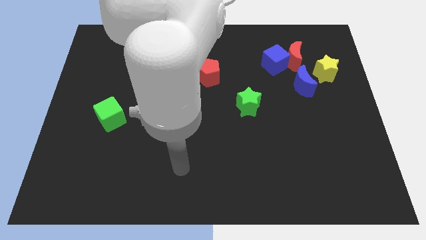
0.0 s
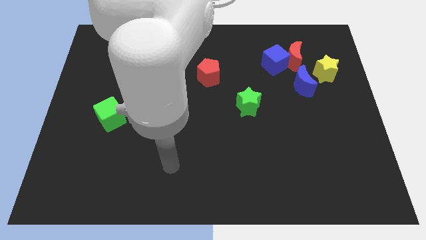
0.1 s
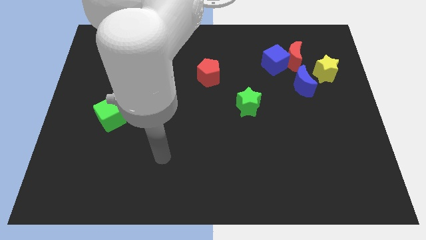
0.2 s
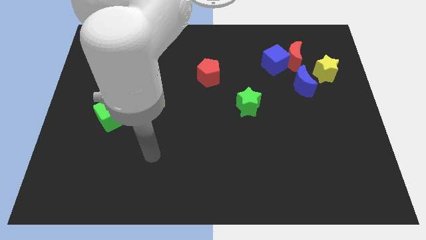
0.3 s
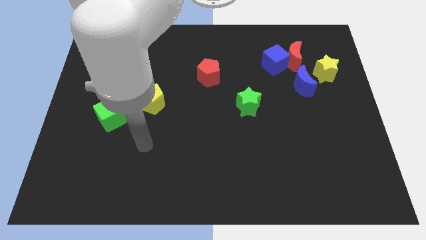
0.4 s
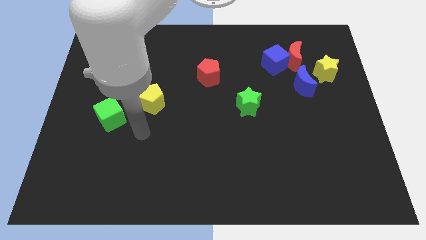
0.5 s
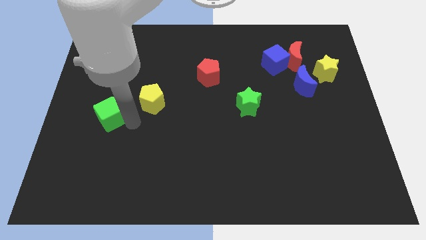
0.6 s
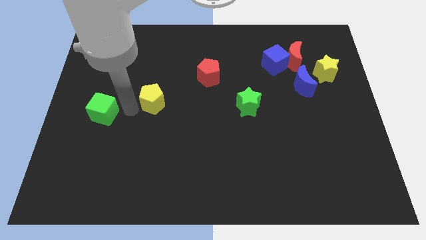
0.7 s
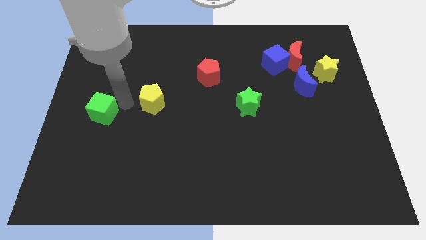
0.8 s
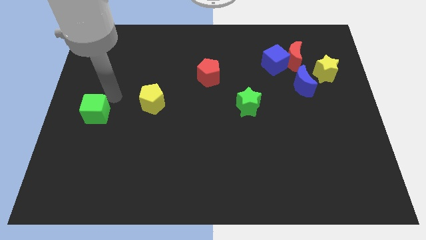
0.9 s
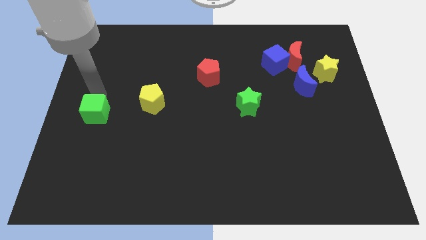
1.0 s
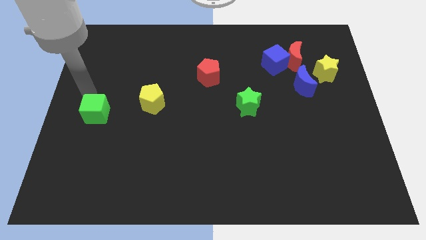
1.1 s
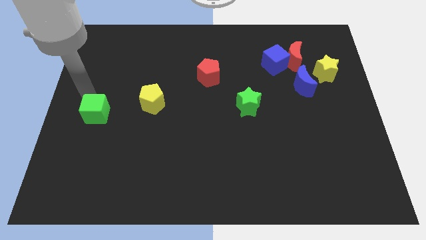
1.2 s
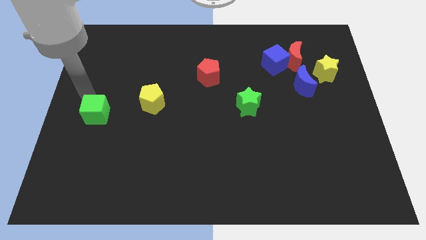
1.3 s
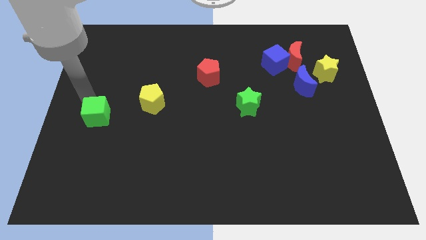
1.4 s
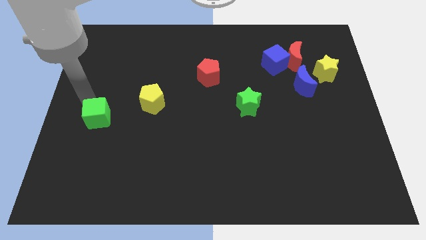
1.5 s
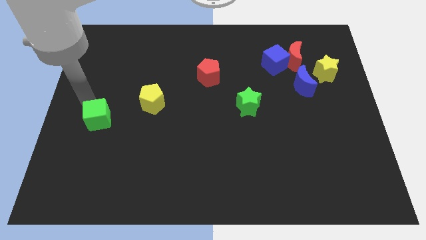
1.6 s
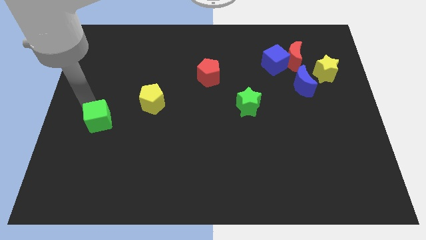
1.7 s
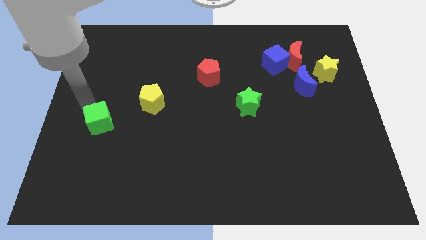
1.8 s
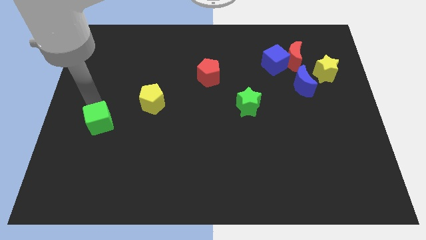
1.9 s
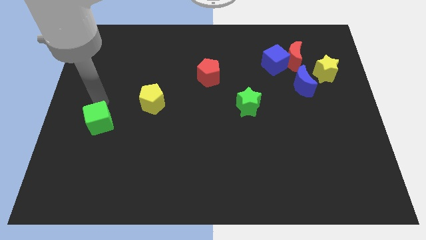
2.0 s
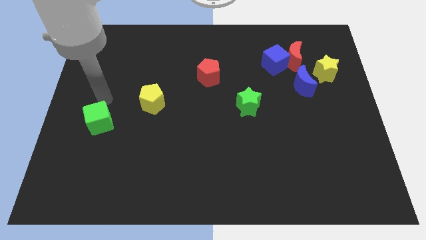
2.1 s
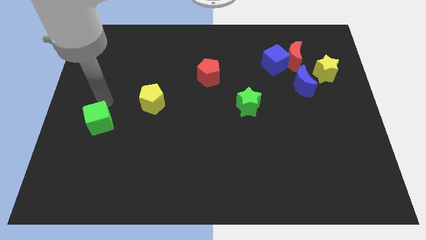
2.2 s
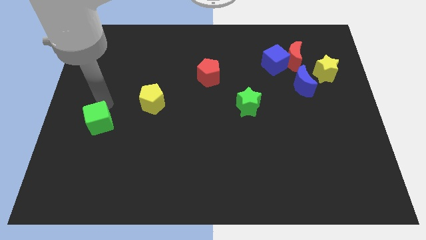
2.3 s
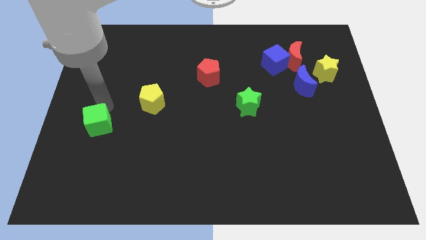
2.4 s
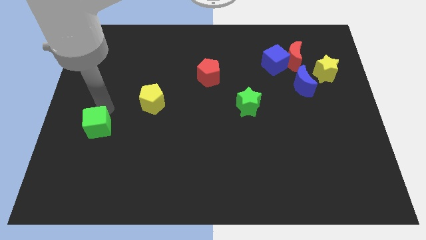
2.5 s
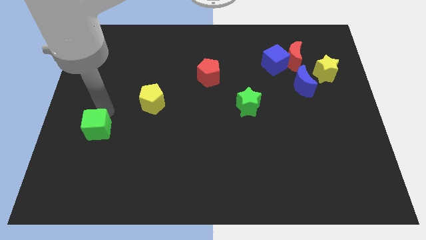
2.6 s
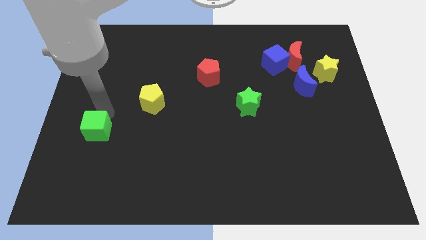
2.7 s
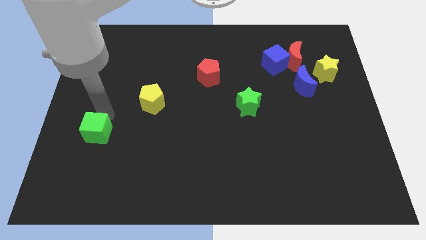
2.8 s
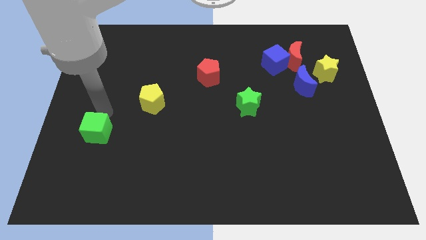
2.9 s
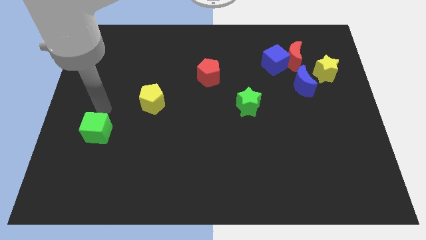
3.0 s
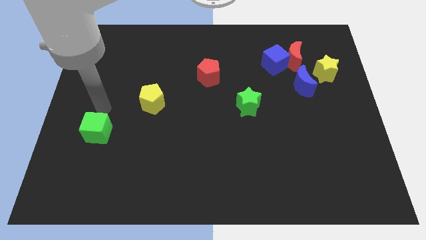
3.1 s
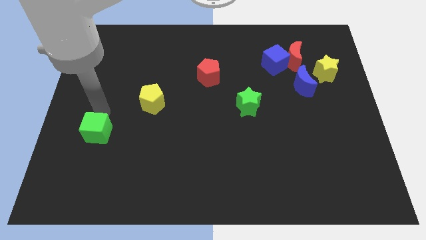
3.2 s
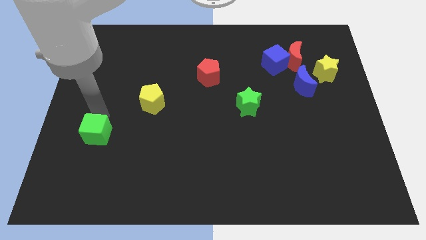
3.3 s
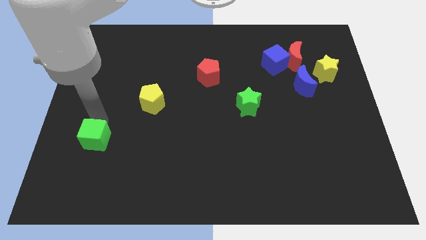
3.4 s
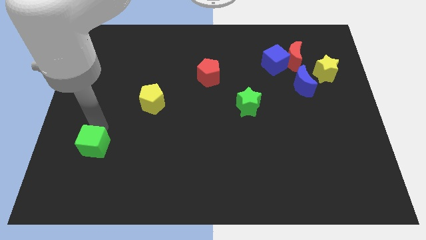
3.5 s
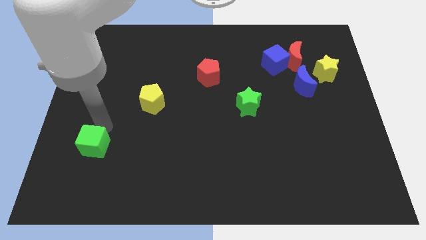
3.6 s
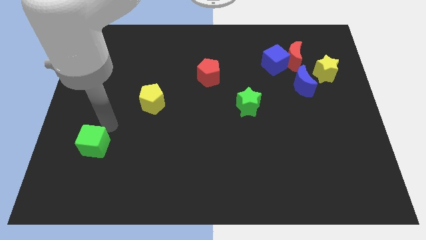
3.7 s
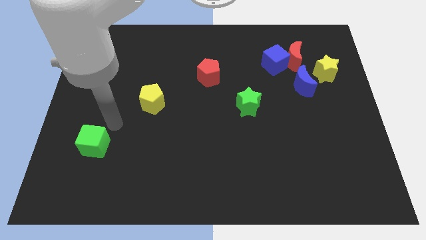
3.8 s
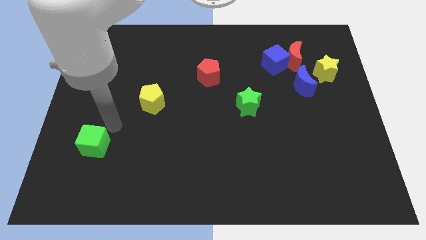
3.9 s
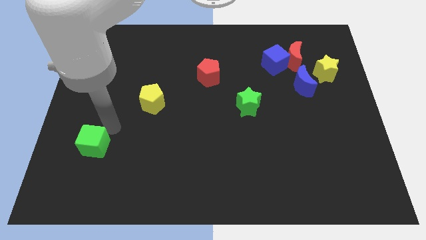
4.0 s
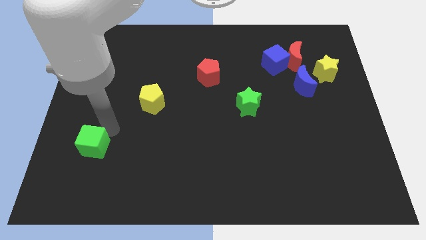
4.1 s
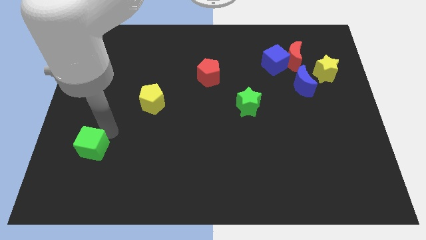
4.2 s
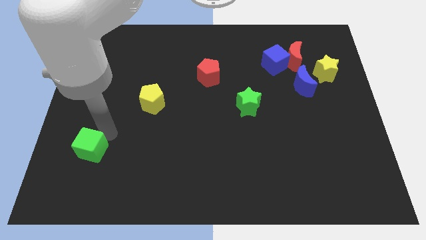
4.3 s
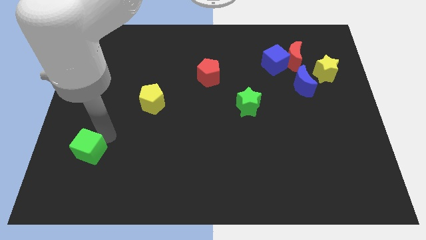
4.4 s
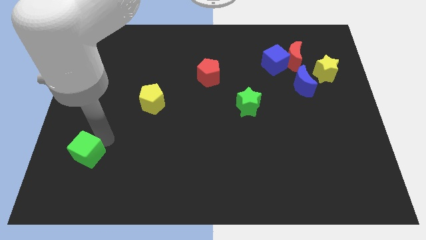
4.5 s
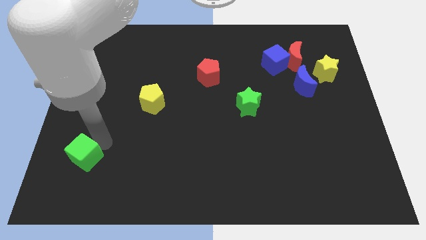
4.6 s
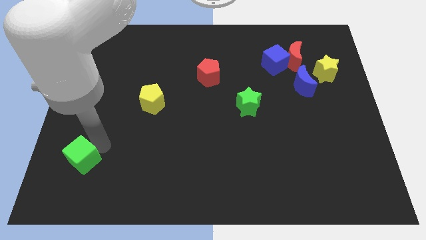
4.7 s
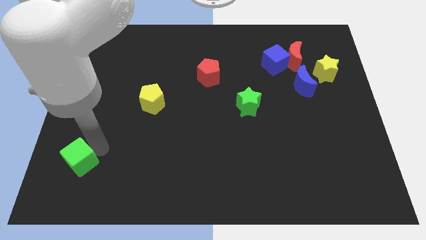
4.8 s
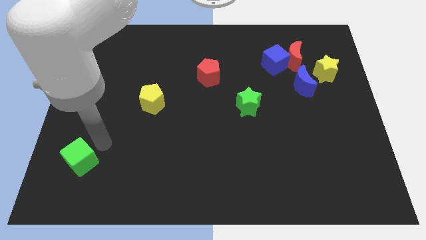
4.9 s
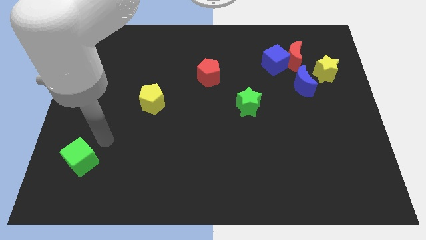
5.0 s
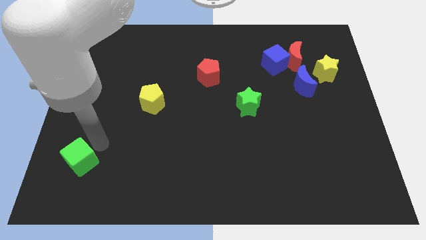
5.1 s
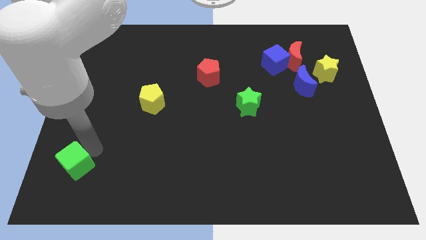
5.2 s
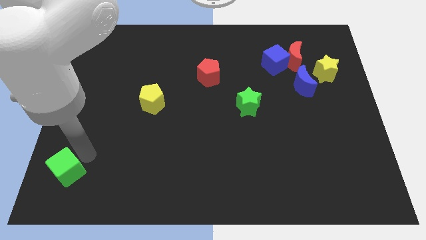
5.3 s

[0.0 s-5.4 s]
move the green cube to the bottom left

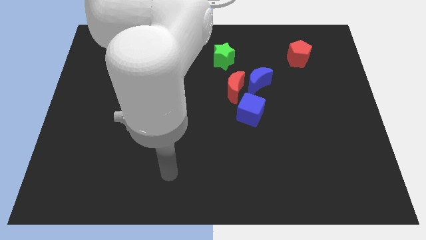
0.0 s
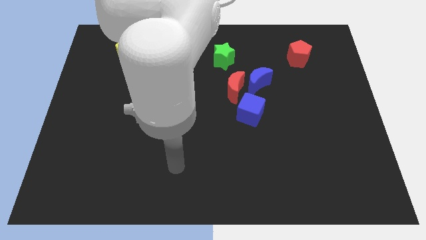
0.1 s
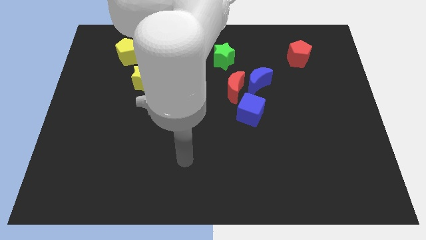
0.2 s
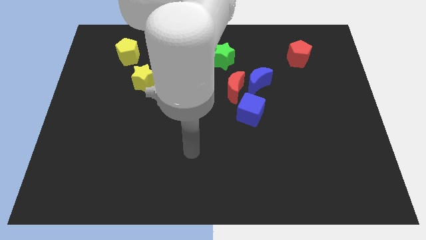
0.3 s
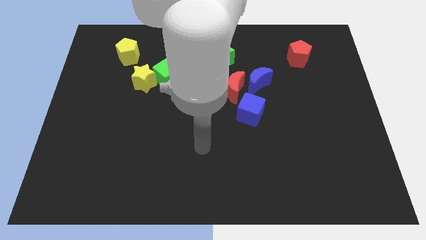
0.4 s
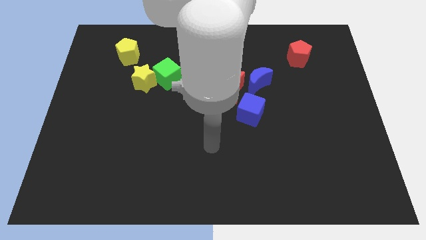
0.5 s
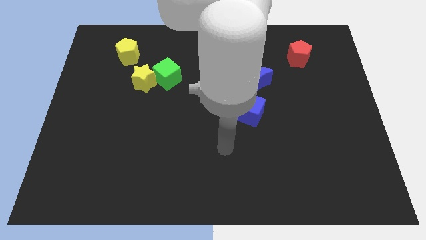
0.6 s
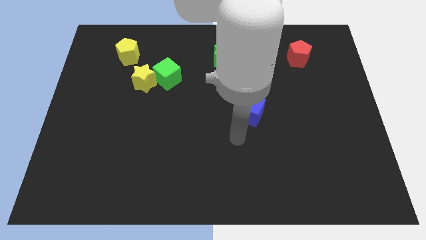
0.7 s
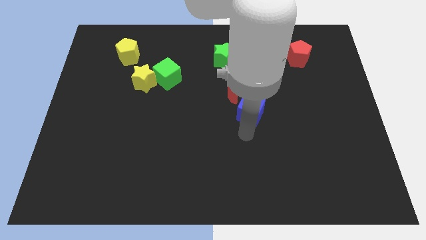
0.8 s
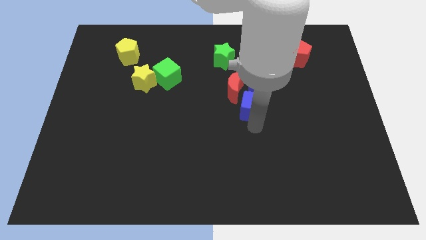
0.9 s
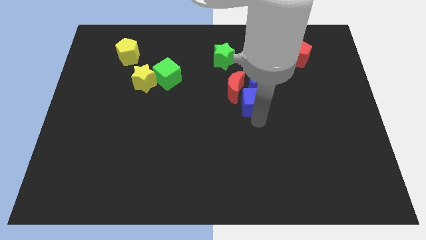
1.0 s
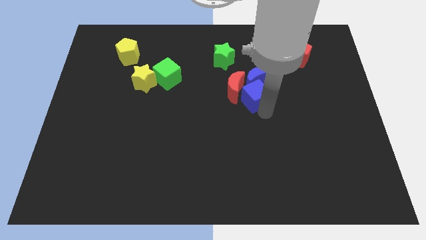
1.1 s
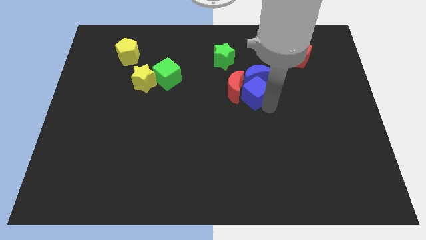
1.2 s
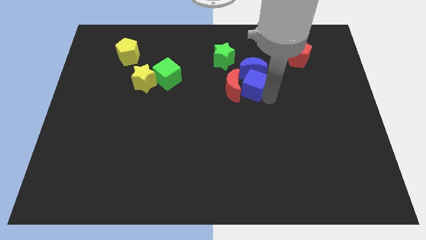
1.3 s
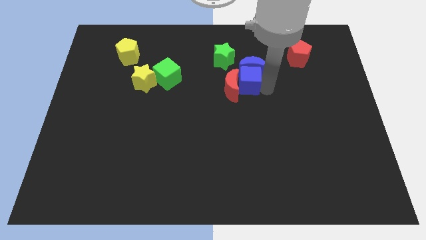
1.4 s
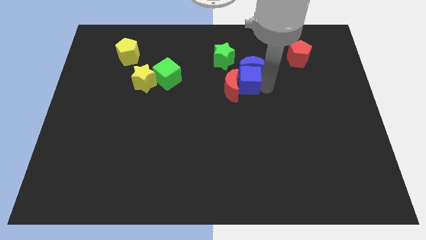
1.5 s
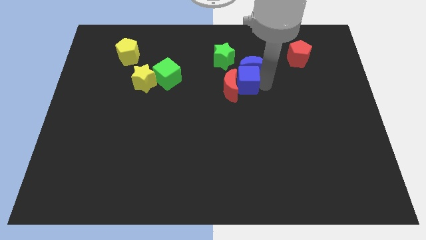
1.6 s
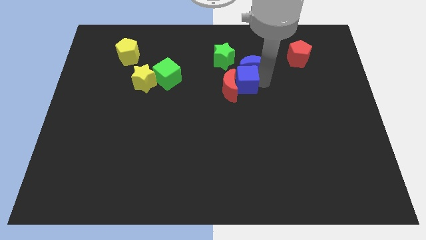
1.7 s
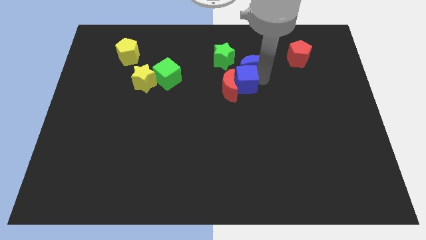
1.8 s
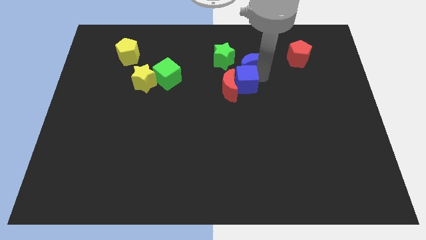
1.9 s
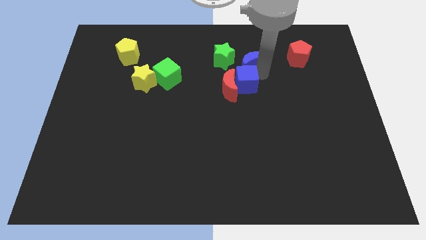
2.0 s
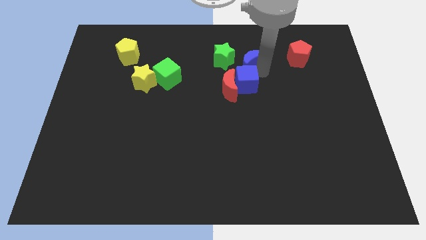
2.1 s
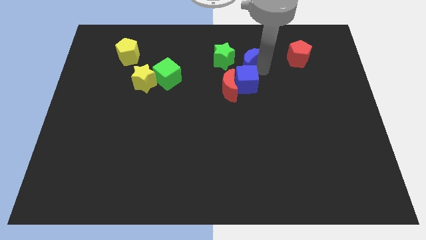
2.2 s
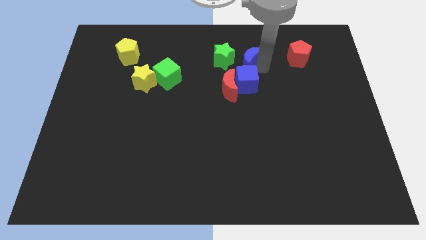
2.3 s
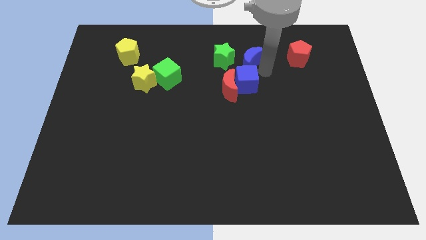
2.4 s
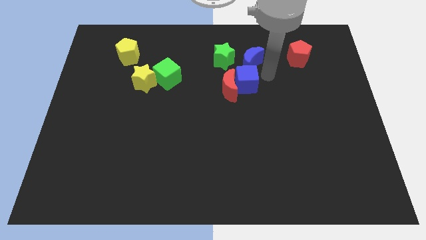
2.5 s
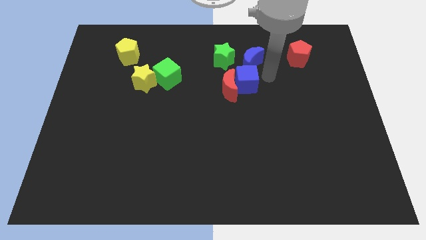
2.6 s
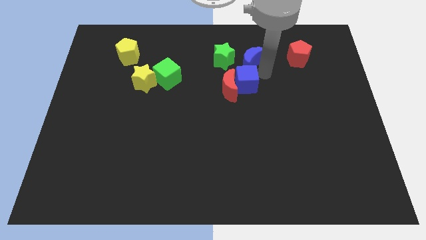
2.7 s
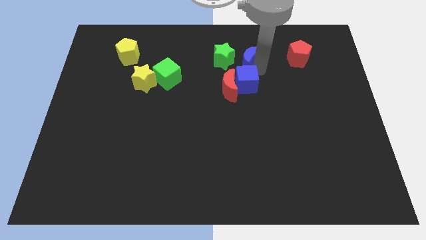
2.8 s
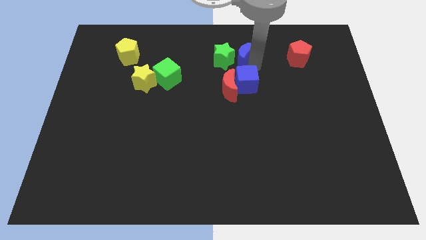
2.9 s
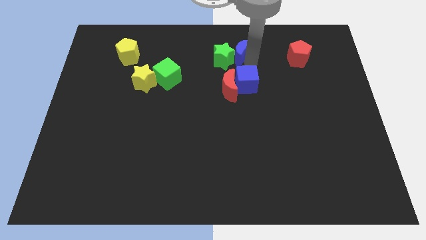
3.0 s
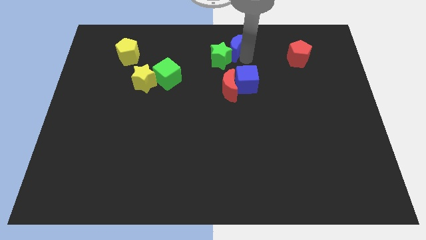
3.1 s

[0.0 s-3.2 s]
push the blue moon to the top
